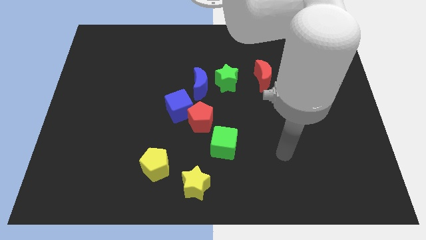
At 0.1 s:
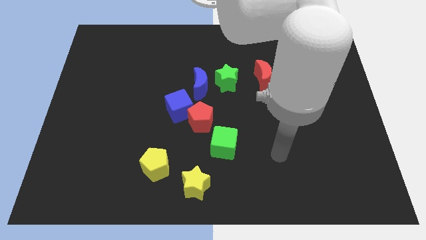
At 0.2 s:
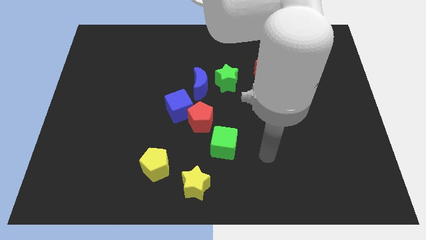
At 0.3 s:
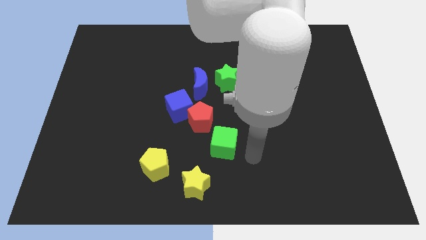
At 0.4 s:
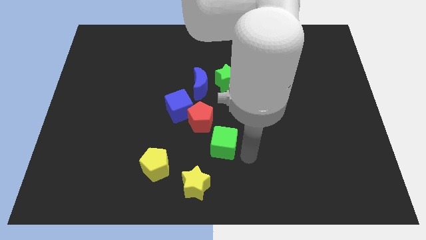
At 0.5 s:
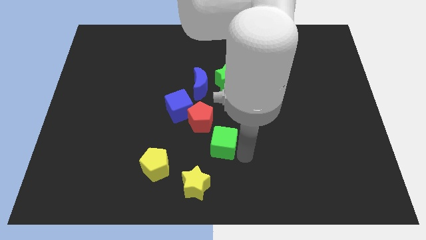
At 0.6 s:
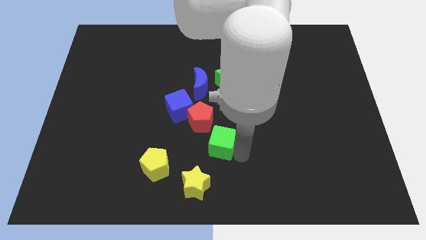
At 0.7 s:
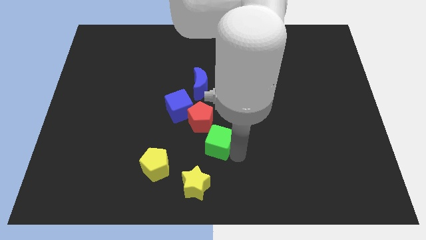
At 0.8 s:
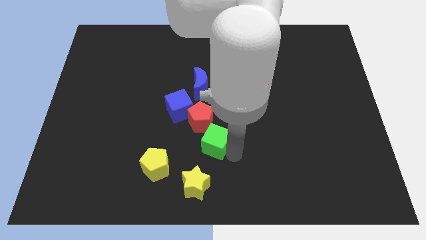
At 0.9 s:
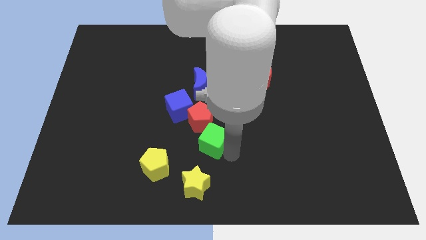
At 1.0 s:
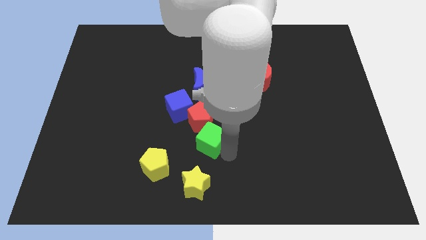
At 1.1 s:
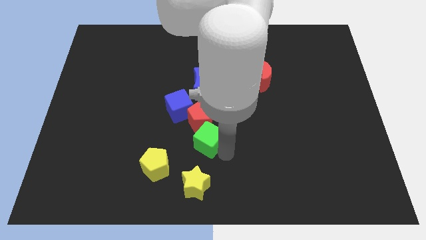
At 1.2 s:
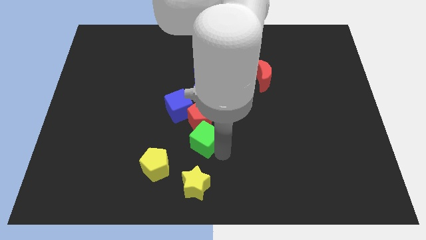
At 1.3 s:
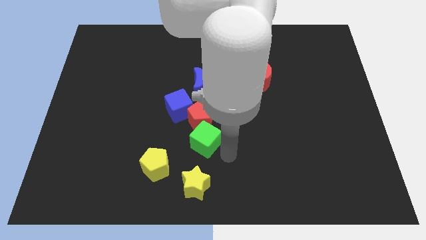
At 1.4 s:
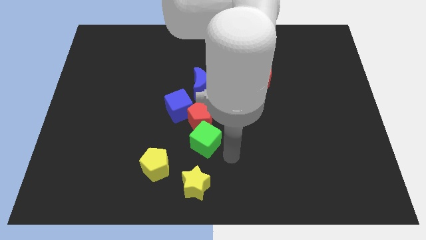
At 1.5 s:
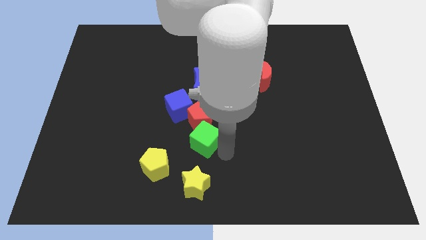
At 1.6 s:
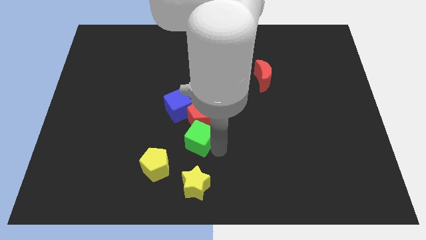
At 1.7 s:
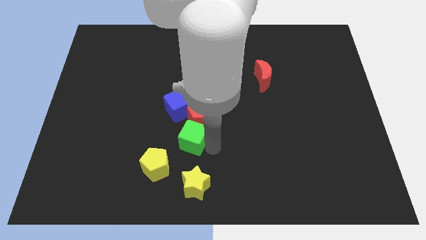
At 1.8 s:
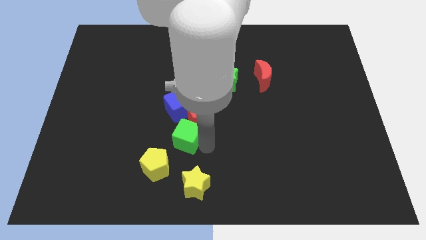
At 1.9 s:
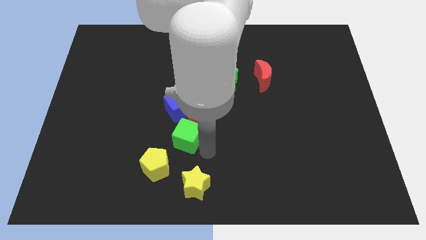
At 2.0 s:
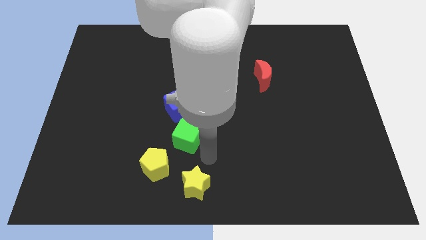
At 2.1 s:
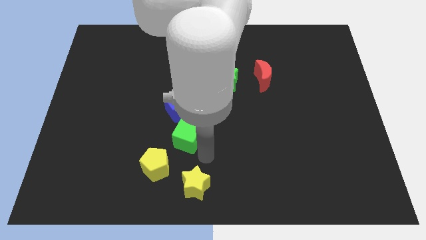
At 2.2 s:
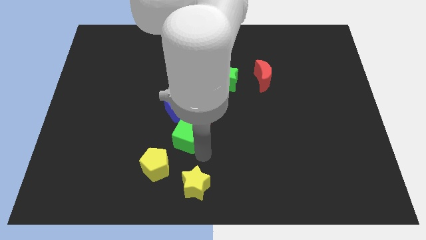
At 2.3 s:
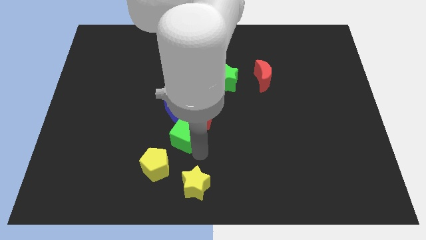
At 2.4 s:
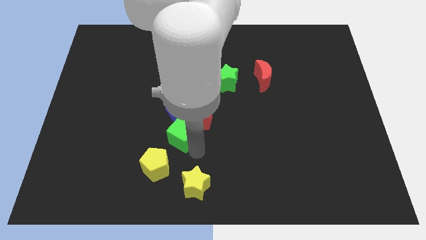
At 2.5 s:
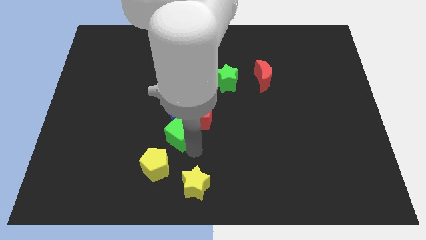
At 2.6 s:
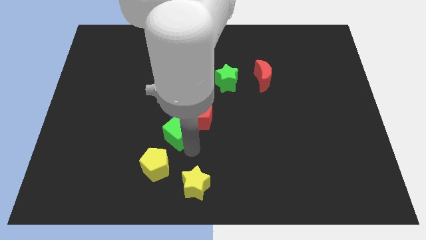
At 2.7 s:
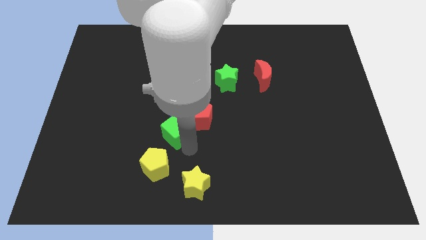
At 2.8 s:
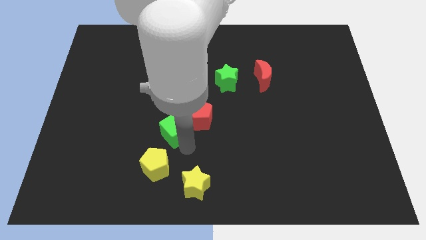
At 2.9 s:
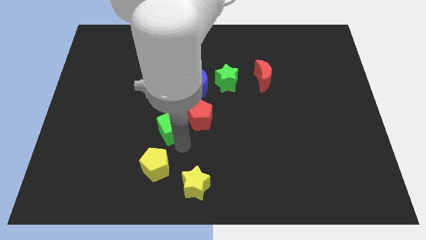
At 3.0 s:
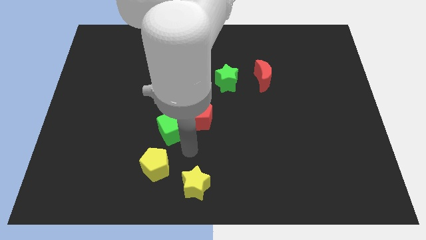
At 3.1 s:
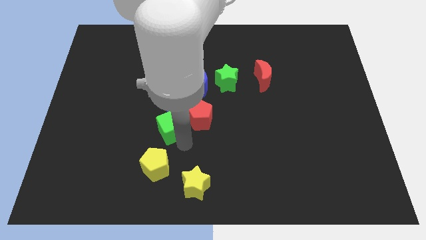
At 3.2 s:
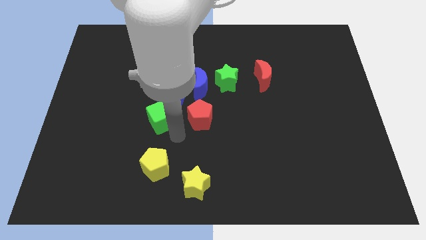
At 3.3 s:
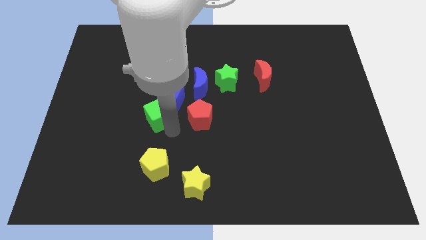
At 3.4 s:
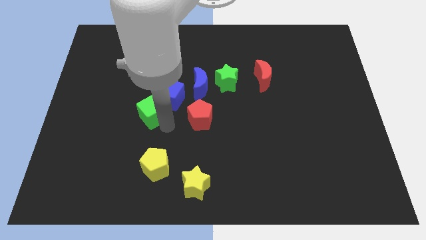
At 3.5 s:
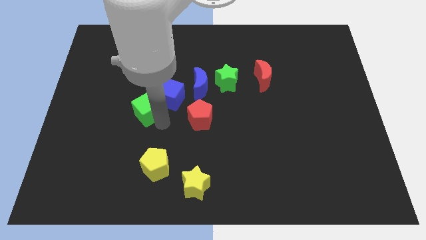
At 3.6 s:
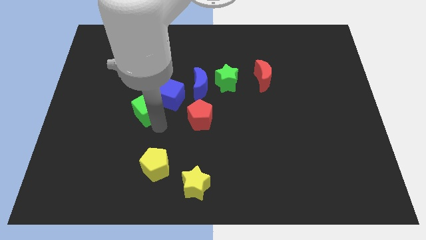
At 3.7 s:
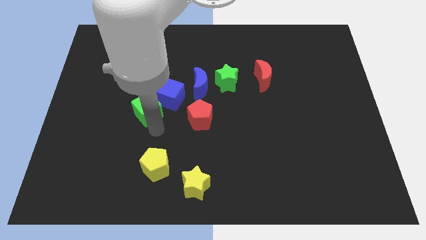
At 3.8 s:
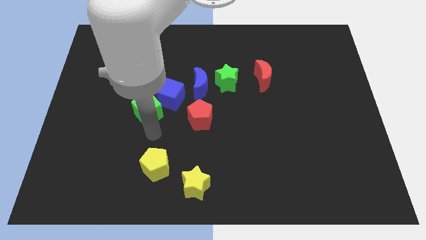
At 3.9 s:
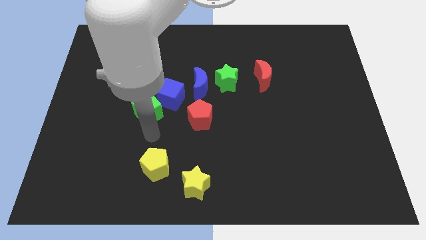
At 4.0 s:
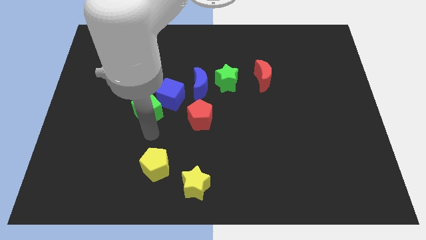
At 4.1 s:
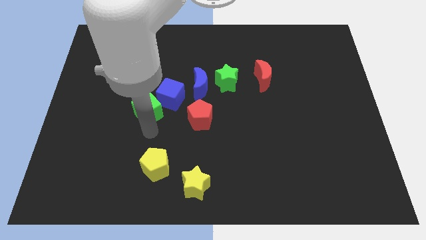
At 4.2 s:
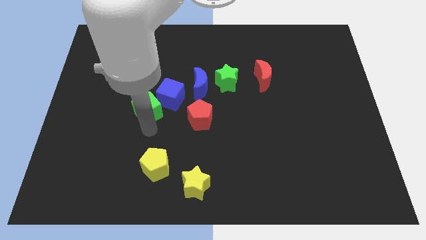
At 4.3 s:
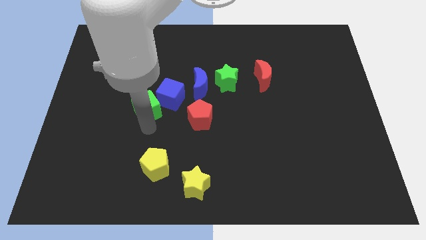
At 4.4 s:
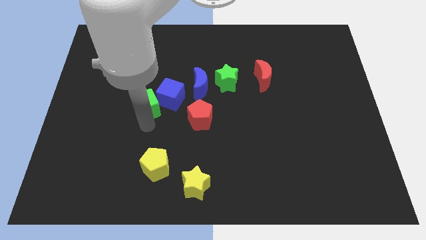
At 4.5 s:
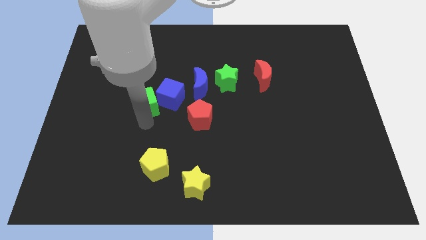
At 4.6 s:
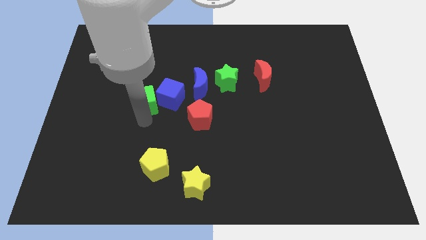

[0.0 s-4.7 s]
push the green cube up and to the left diagonally

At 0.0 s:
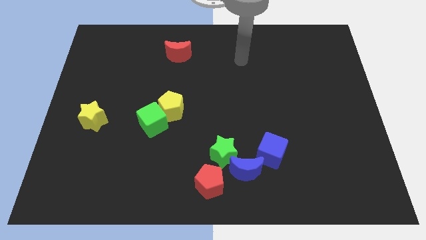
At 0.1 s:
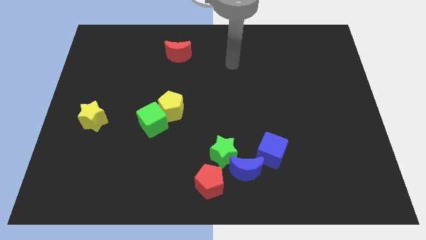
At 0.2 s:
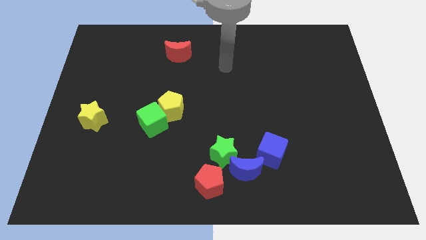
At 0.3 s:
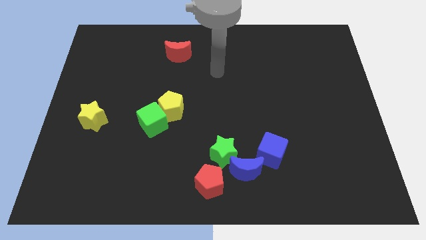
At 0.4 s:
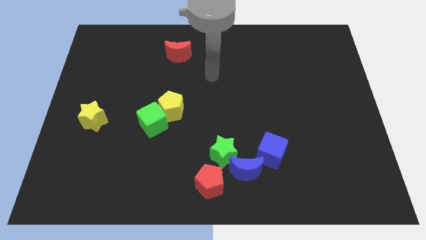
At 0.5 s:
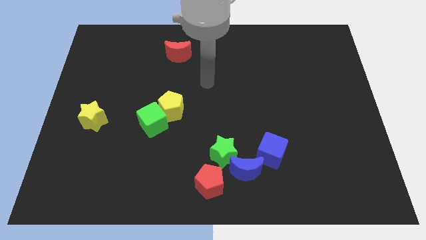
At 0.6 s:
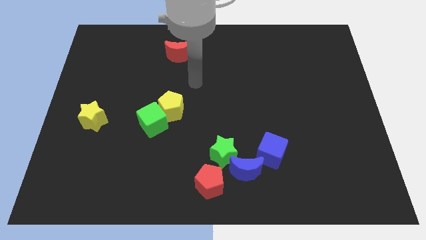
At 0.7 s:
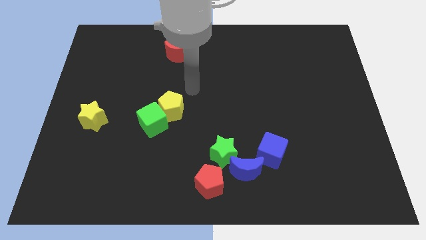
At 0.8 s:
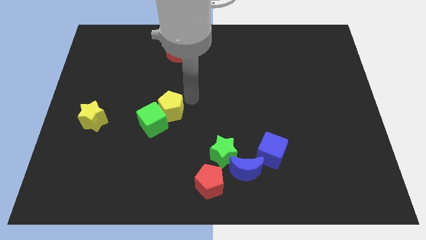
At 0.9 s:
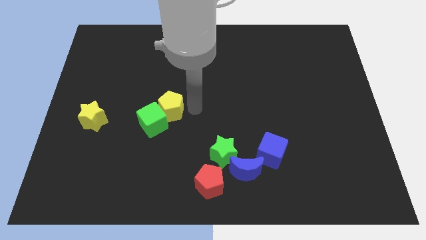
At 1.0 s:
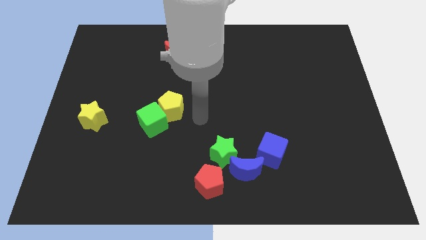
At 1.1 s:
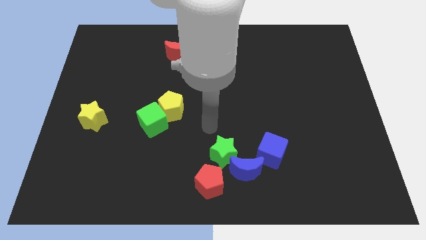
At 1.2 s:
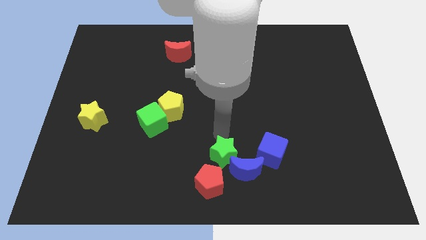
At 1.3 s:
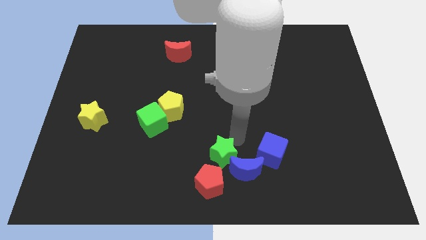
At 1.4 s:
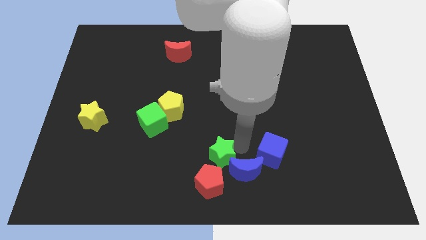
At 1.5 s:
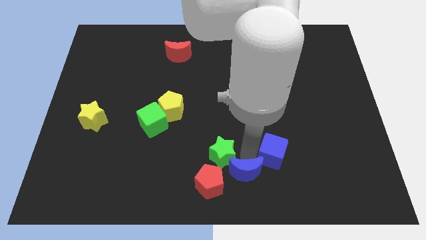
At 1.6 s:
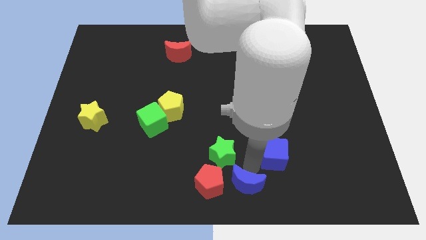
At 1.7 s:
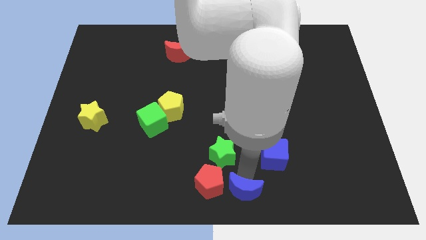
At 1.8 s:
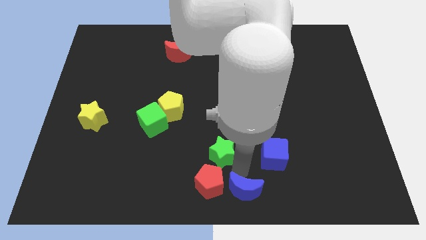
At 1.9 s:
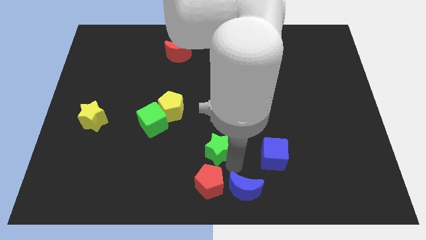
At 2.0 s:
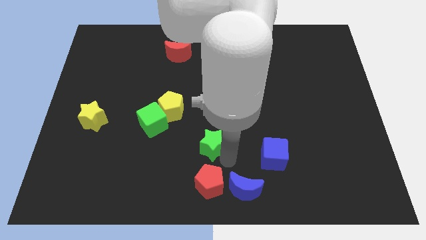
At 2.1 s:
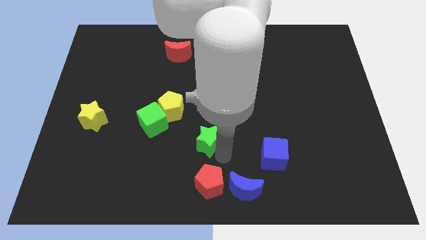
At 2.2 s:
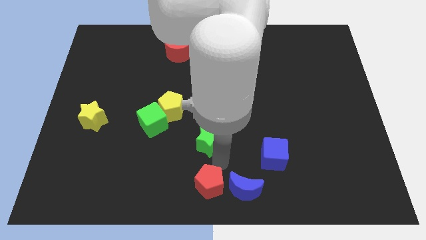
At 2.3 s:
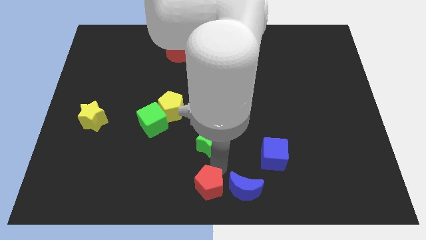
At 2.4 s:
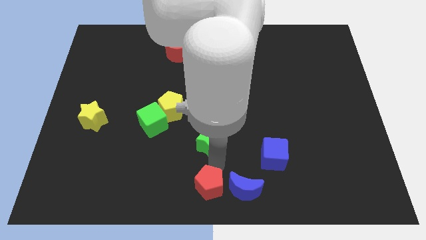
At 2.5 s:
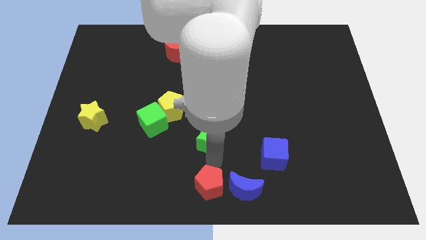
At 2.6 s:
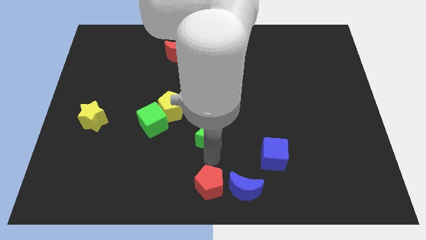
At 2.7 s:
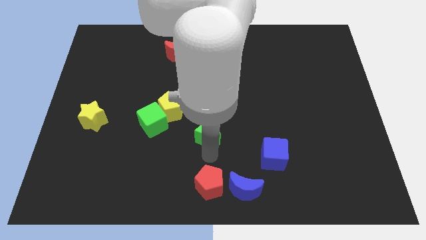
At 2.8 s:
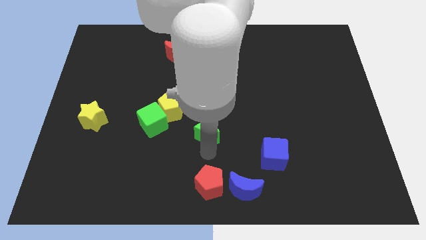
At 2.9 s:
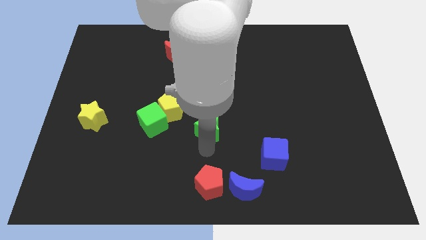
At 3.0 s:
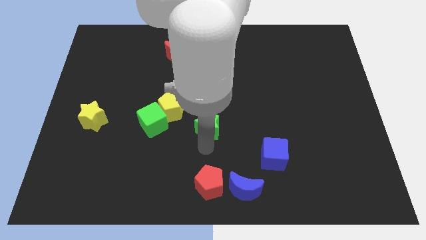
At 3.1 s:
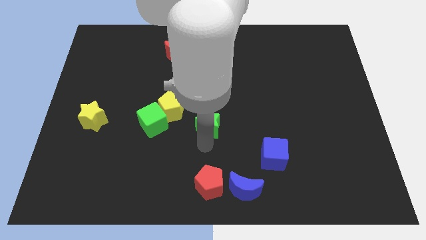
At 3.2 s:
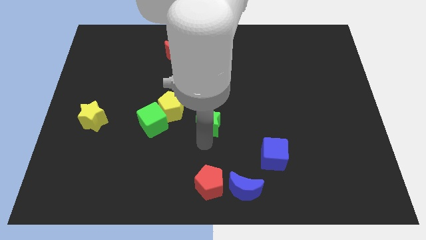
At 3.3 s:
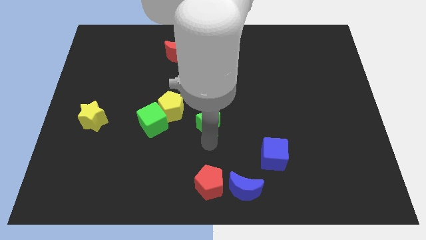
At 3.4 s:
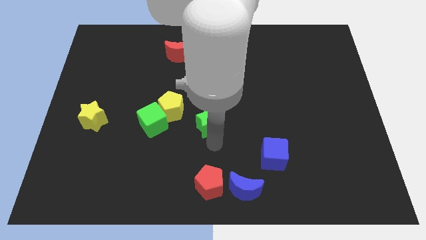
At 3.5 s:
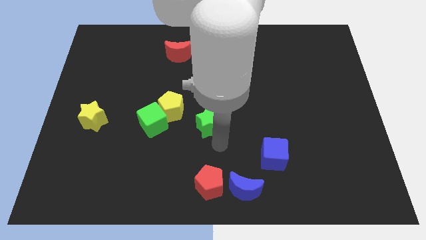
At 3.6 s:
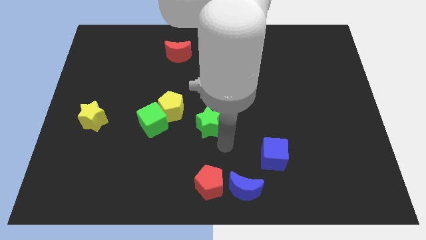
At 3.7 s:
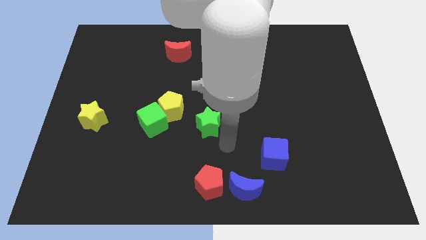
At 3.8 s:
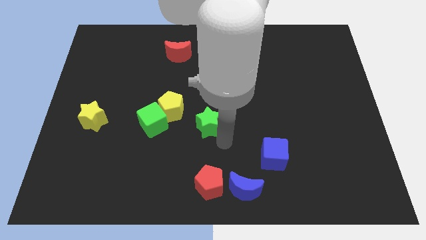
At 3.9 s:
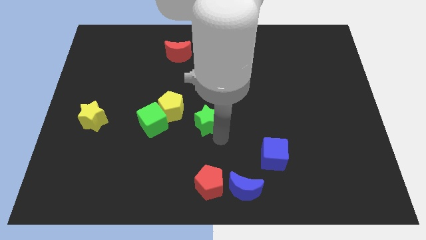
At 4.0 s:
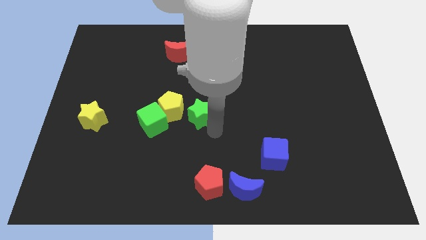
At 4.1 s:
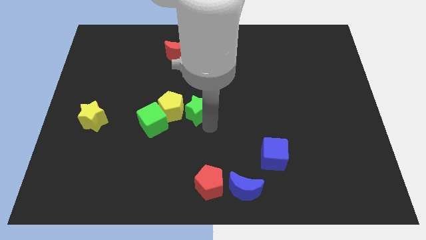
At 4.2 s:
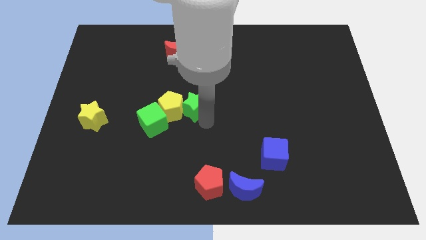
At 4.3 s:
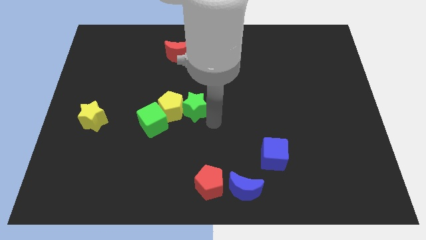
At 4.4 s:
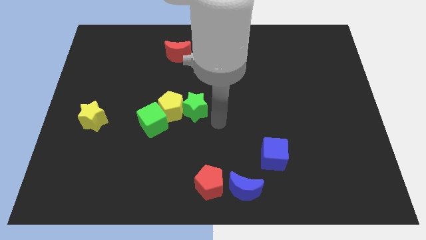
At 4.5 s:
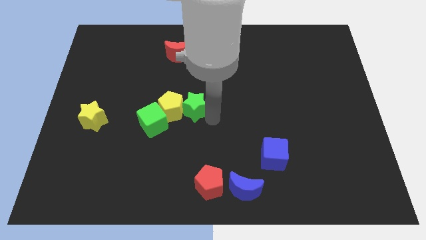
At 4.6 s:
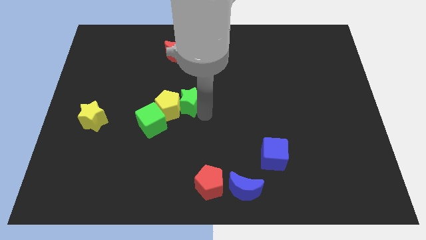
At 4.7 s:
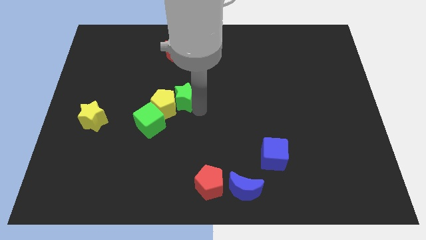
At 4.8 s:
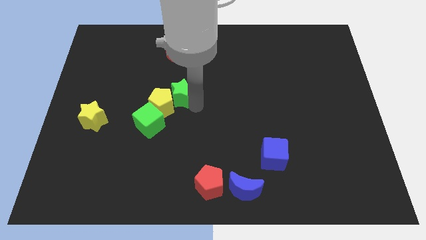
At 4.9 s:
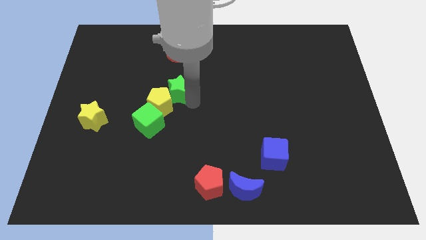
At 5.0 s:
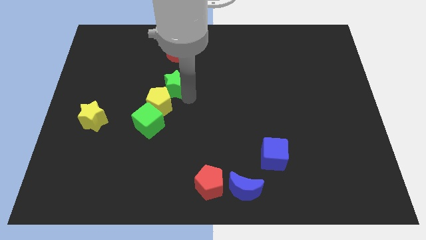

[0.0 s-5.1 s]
move the green star diagonally up and to the left
